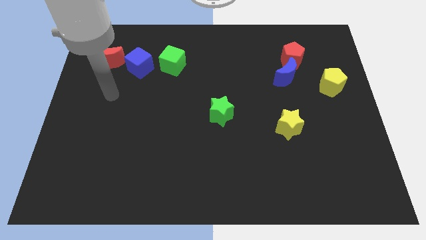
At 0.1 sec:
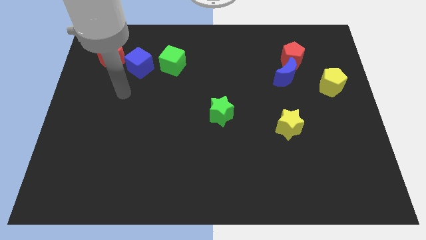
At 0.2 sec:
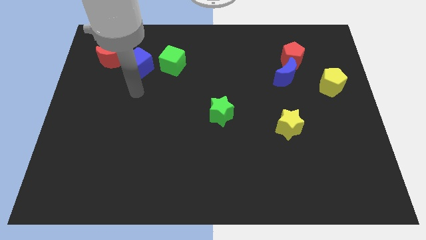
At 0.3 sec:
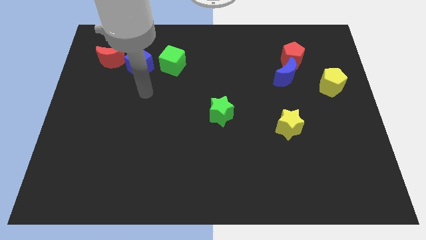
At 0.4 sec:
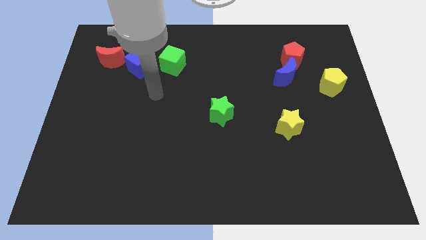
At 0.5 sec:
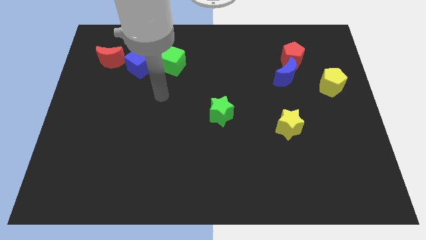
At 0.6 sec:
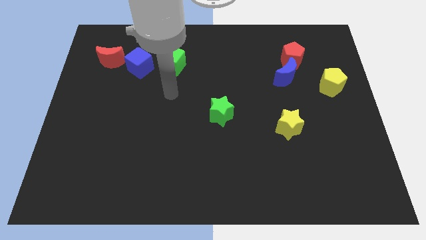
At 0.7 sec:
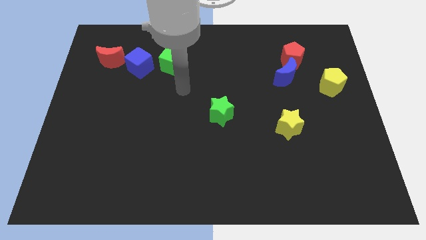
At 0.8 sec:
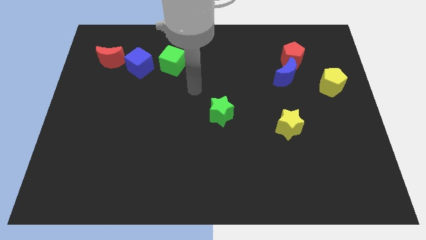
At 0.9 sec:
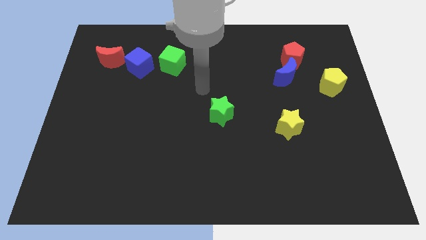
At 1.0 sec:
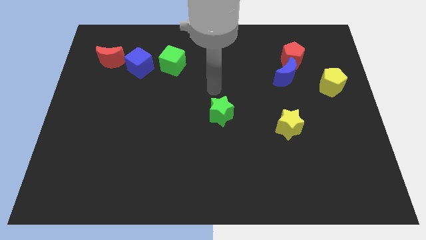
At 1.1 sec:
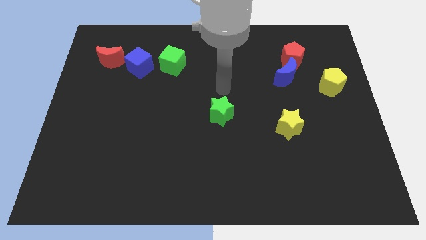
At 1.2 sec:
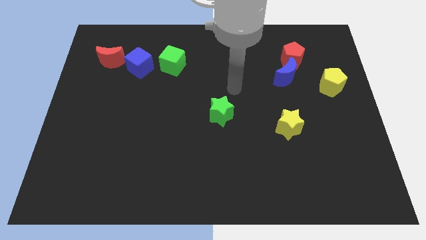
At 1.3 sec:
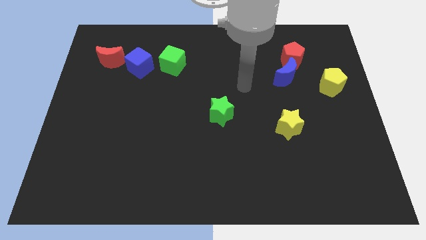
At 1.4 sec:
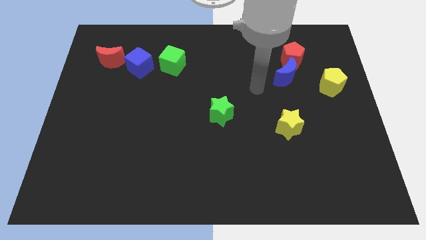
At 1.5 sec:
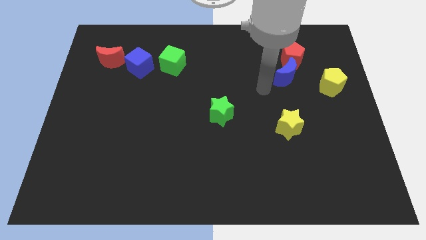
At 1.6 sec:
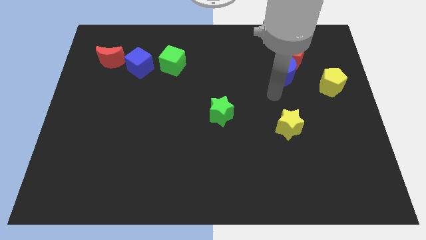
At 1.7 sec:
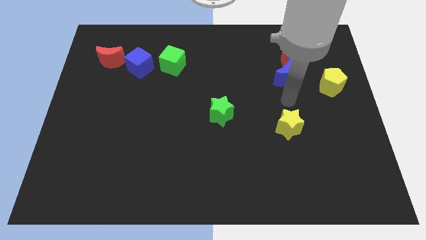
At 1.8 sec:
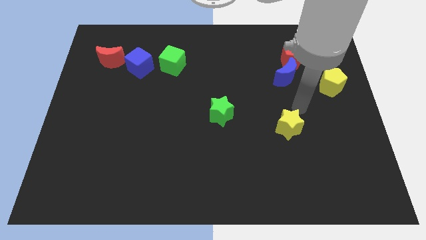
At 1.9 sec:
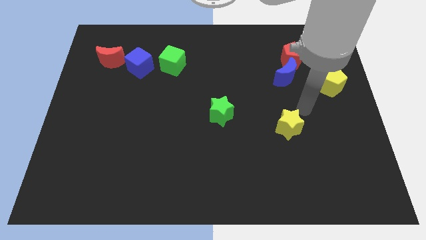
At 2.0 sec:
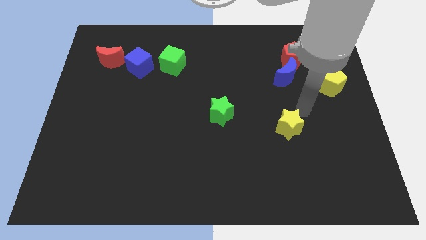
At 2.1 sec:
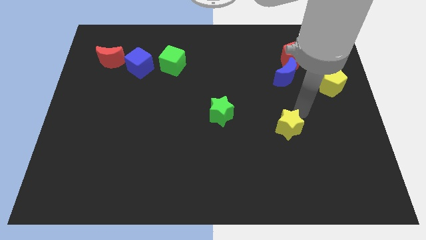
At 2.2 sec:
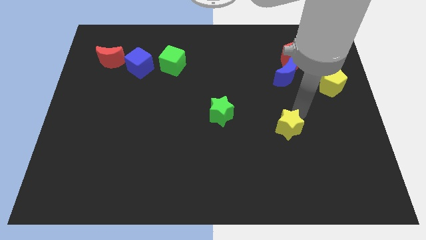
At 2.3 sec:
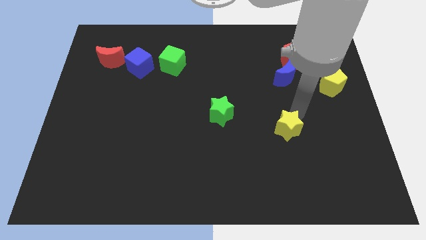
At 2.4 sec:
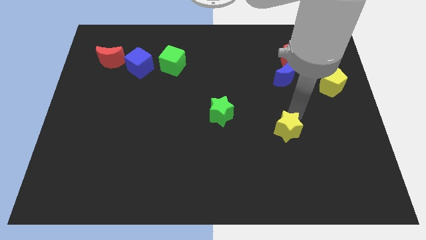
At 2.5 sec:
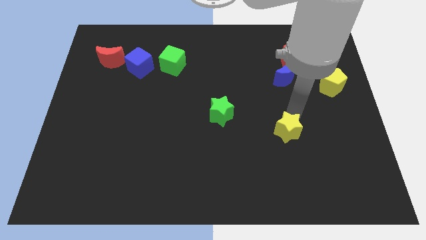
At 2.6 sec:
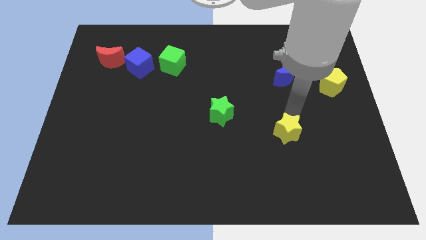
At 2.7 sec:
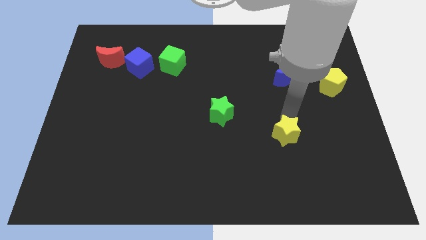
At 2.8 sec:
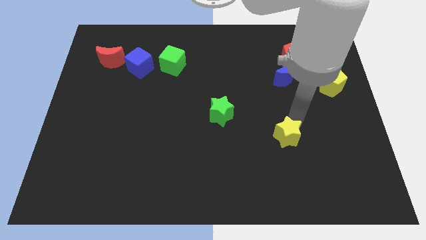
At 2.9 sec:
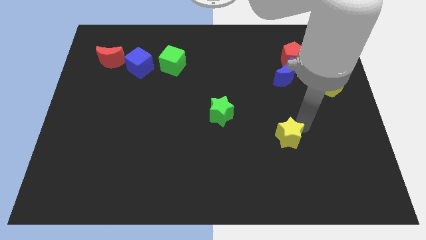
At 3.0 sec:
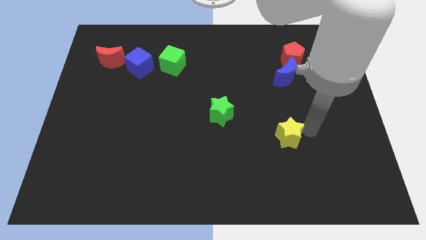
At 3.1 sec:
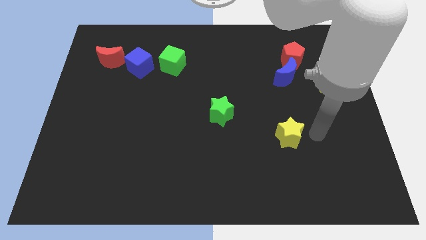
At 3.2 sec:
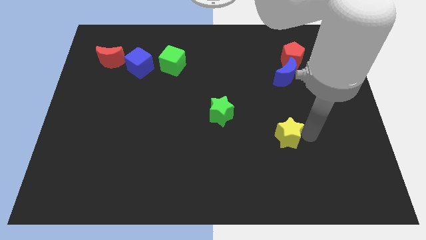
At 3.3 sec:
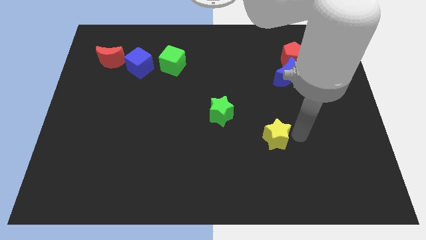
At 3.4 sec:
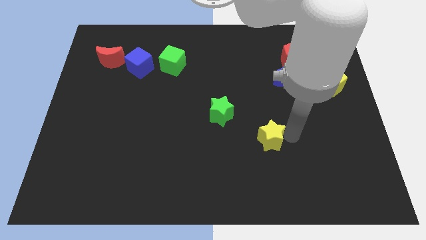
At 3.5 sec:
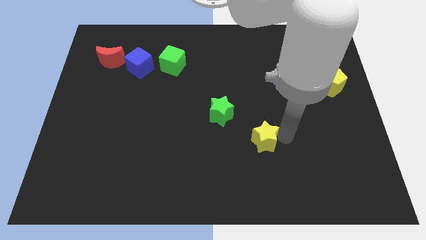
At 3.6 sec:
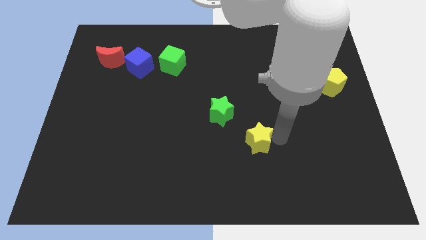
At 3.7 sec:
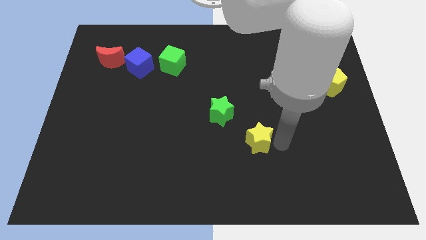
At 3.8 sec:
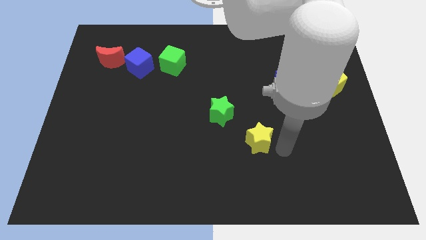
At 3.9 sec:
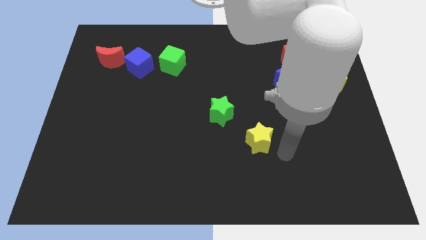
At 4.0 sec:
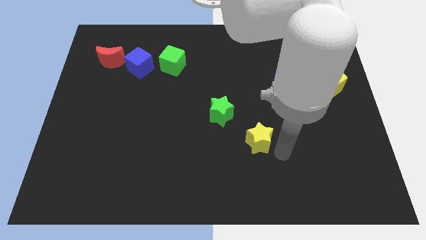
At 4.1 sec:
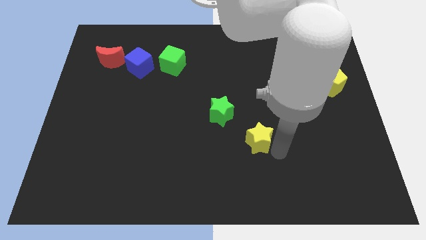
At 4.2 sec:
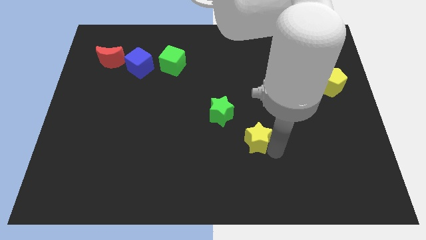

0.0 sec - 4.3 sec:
move the yellow star to the left a little

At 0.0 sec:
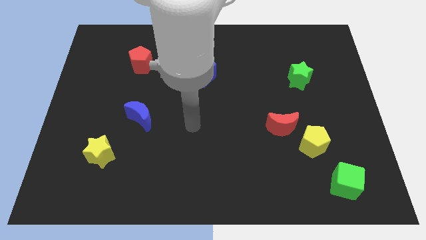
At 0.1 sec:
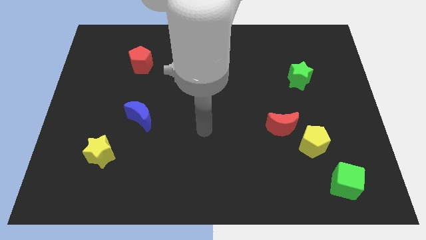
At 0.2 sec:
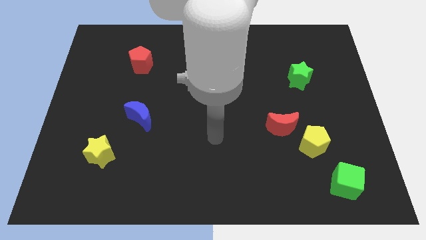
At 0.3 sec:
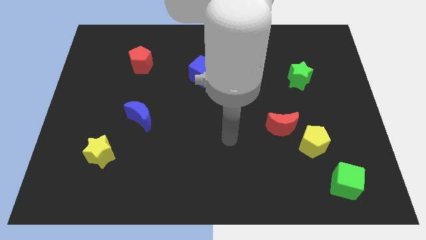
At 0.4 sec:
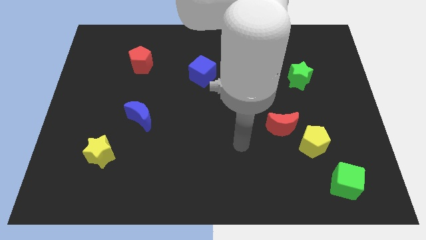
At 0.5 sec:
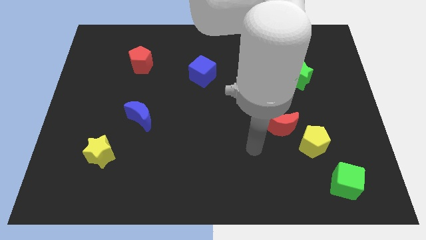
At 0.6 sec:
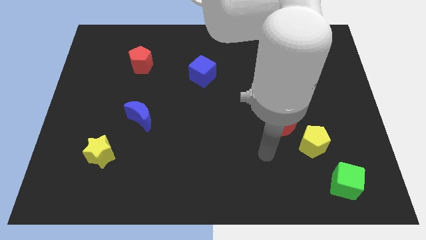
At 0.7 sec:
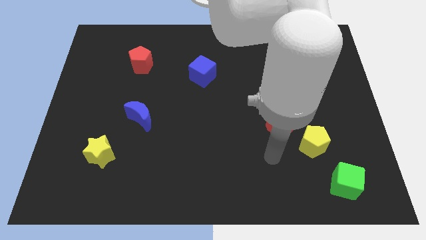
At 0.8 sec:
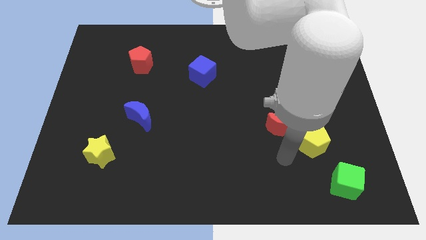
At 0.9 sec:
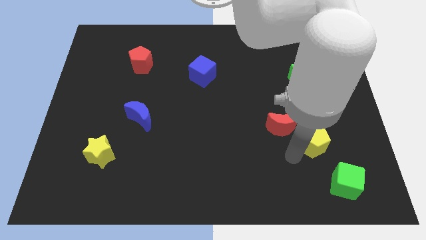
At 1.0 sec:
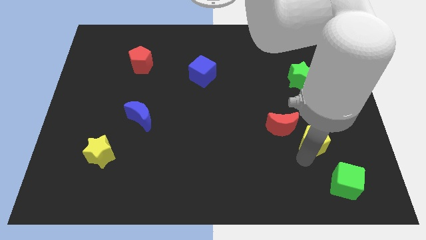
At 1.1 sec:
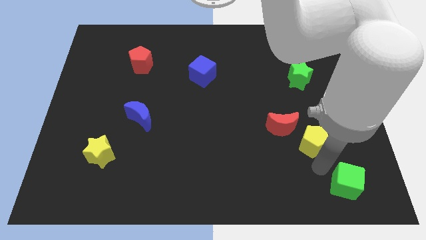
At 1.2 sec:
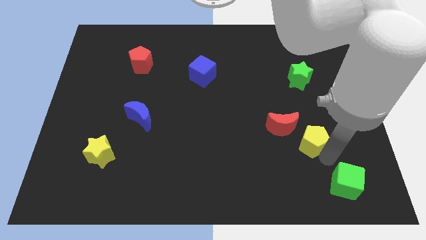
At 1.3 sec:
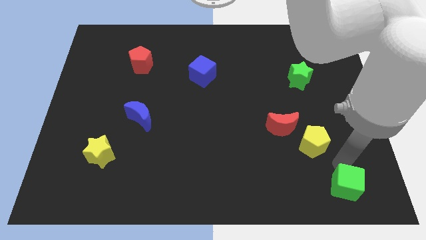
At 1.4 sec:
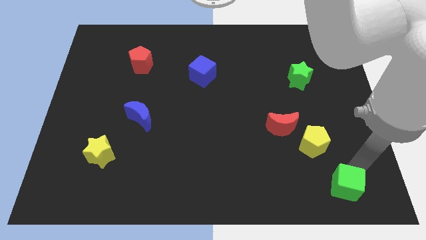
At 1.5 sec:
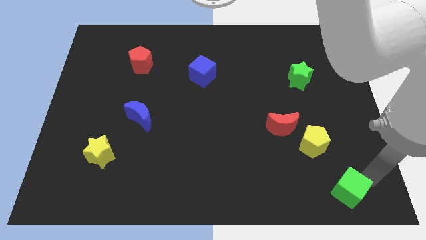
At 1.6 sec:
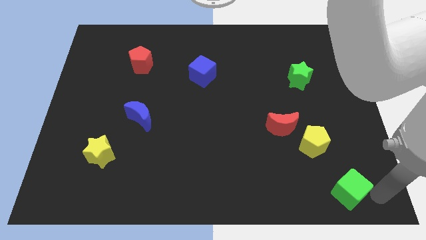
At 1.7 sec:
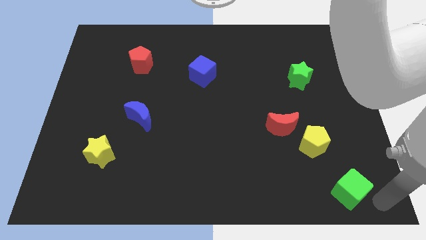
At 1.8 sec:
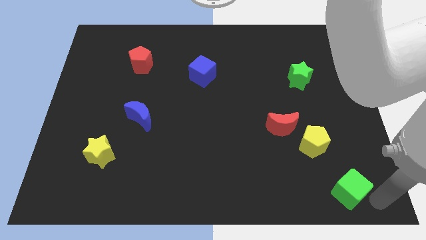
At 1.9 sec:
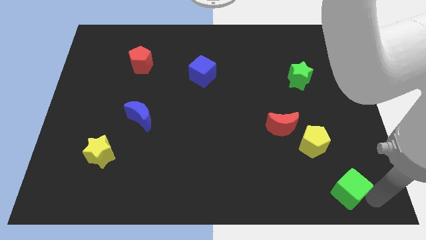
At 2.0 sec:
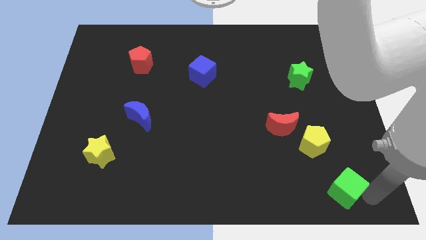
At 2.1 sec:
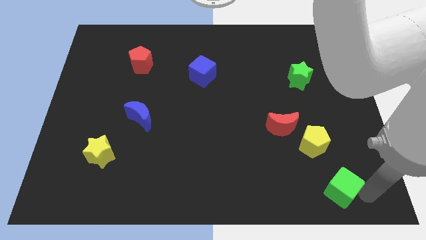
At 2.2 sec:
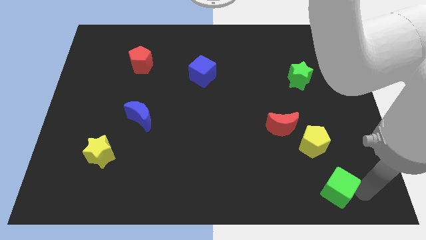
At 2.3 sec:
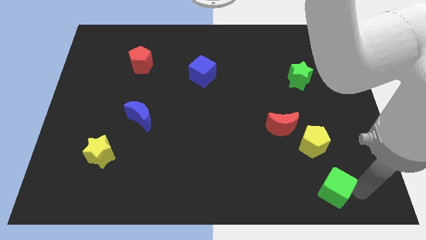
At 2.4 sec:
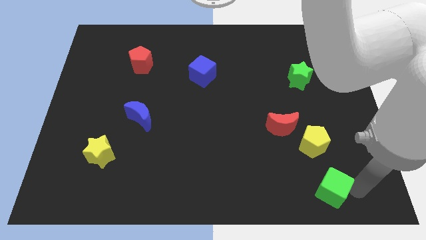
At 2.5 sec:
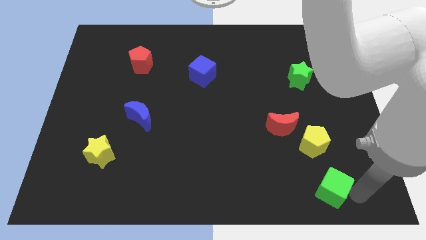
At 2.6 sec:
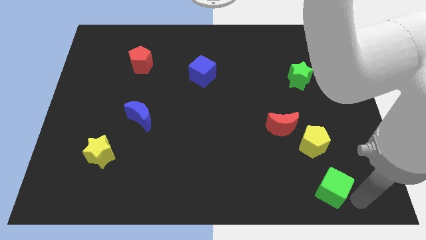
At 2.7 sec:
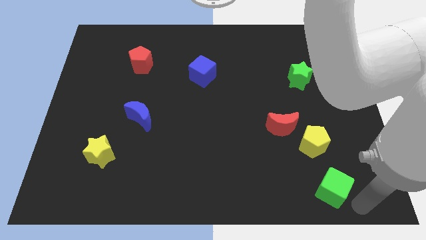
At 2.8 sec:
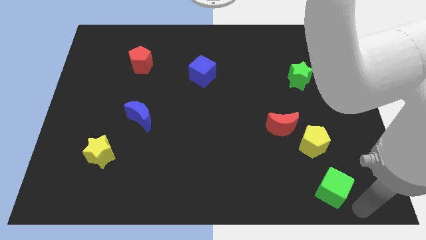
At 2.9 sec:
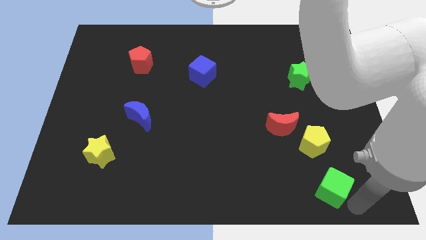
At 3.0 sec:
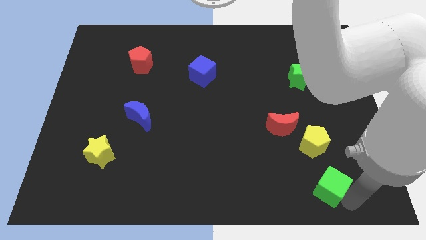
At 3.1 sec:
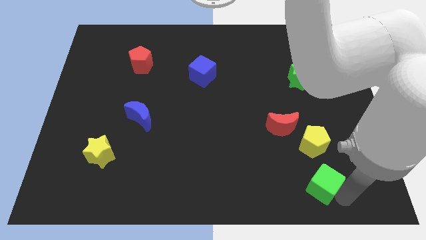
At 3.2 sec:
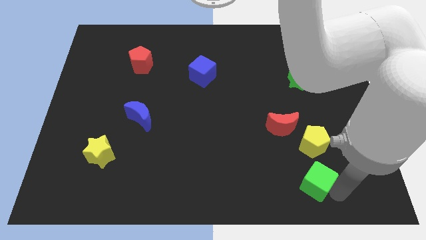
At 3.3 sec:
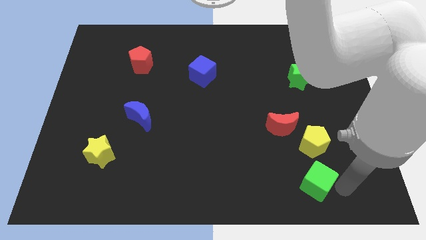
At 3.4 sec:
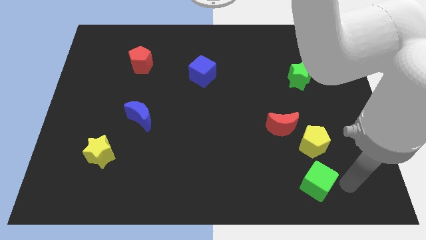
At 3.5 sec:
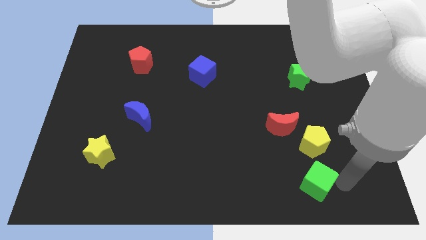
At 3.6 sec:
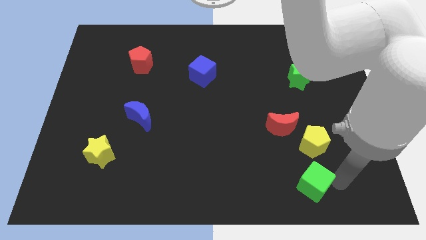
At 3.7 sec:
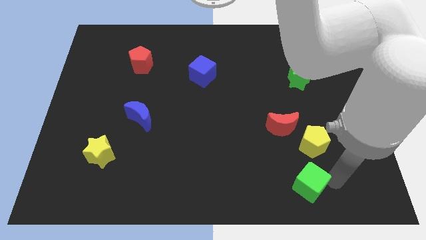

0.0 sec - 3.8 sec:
slightly slide the green cube left
